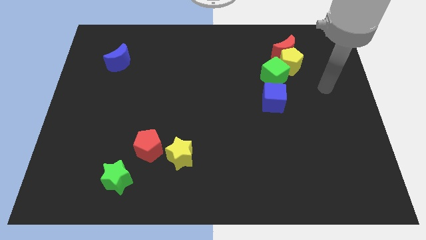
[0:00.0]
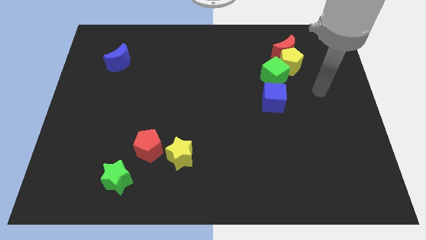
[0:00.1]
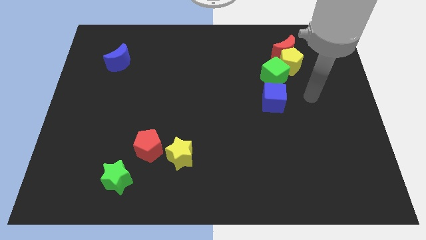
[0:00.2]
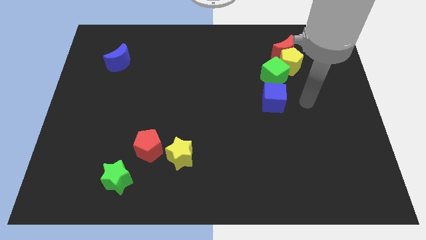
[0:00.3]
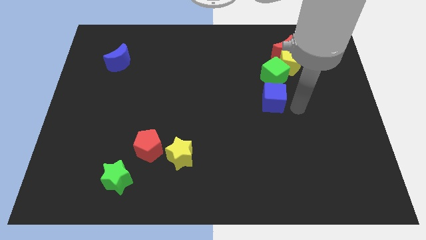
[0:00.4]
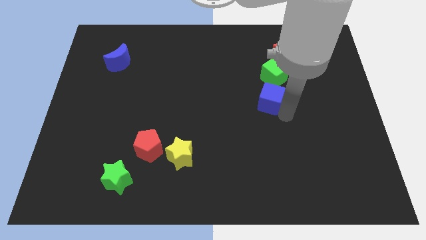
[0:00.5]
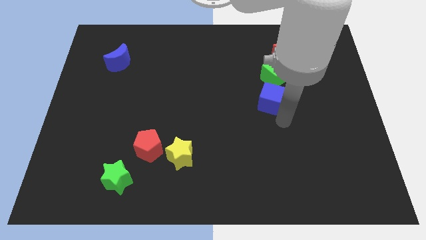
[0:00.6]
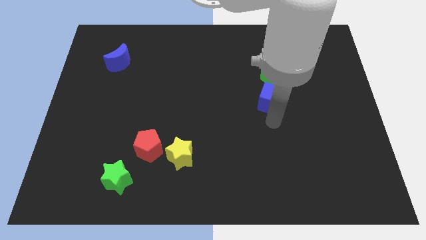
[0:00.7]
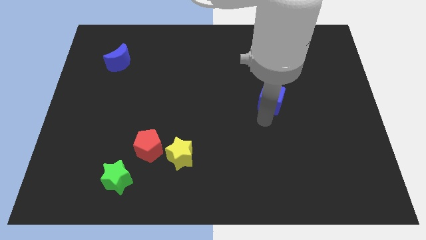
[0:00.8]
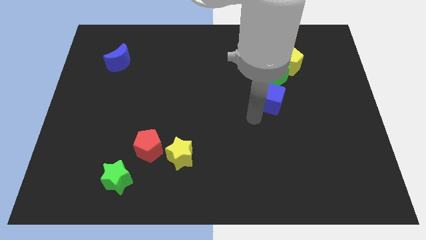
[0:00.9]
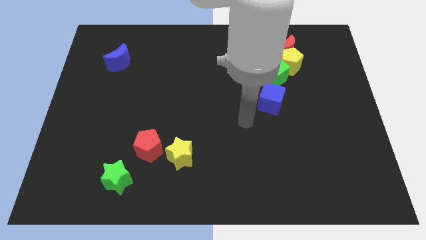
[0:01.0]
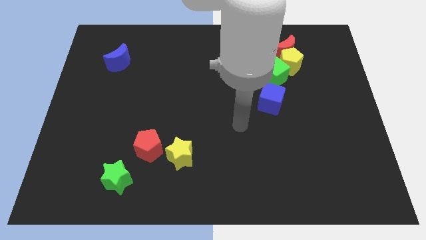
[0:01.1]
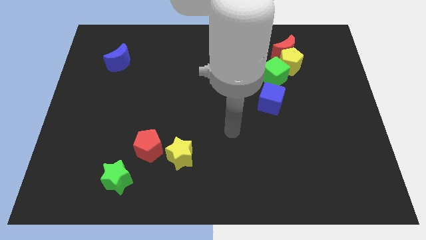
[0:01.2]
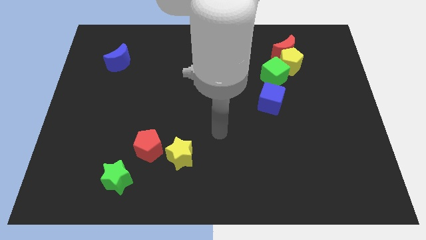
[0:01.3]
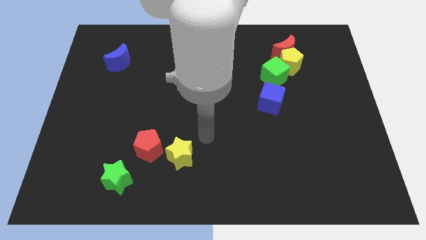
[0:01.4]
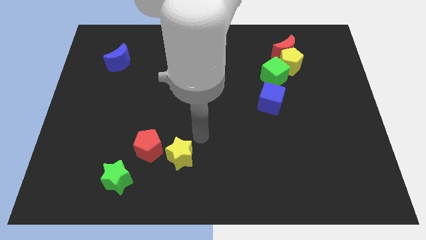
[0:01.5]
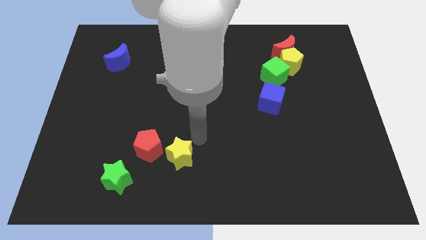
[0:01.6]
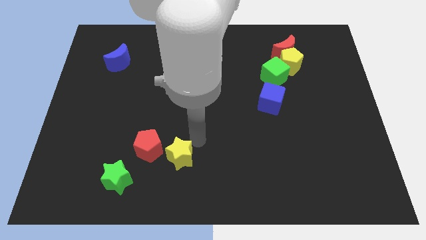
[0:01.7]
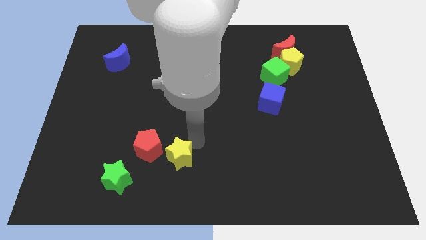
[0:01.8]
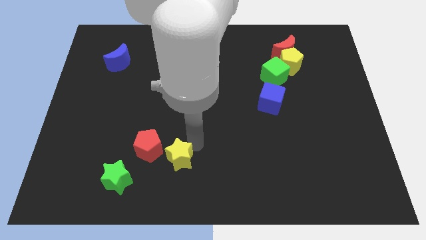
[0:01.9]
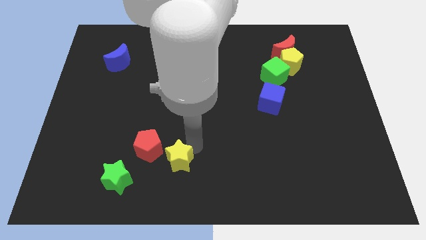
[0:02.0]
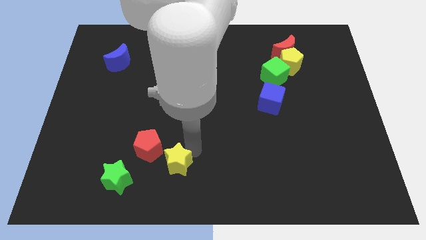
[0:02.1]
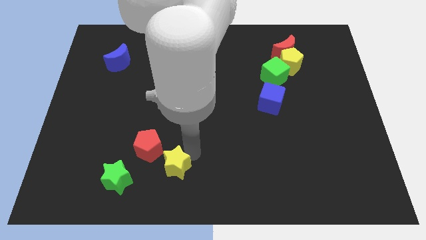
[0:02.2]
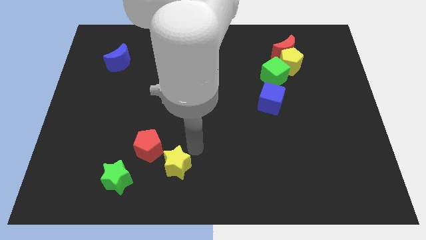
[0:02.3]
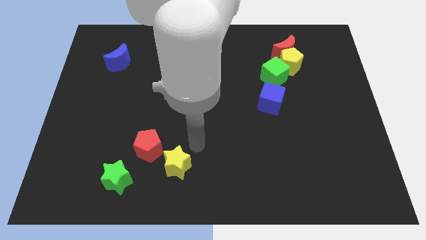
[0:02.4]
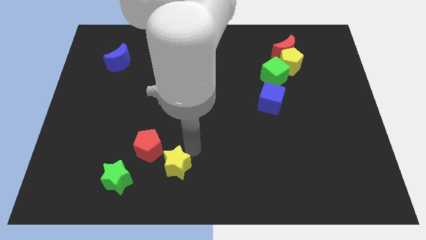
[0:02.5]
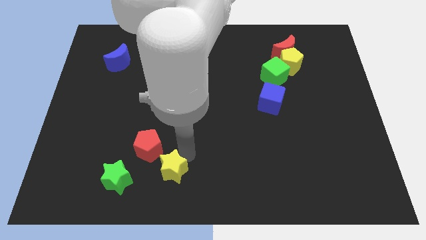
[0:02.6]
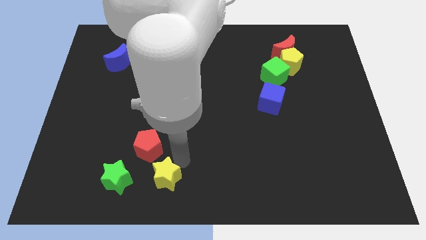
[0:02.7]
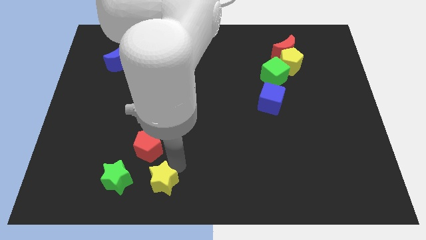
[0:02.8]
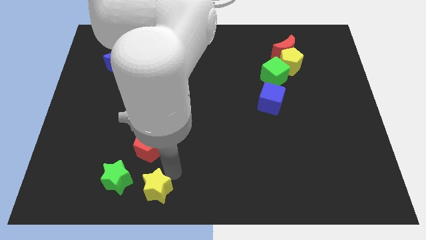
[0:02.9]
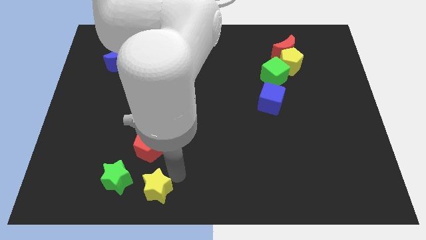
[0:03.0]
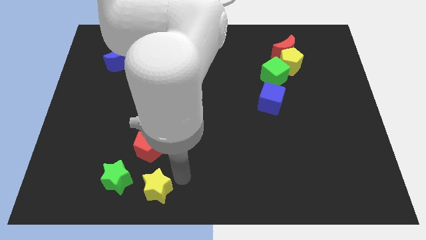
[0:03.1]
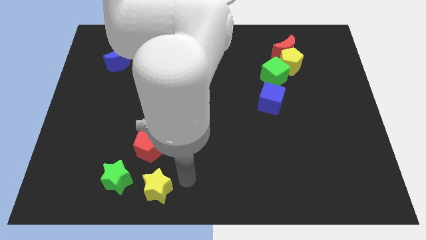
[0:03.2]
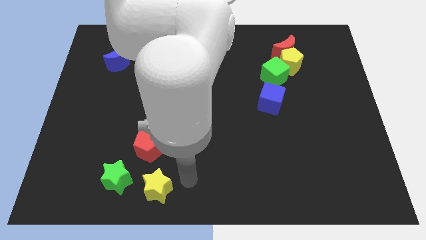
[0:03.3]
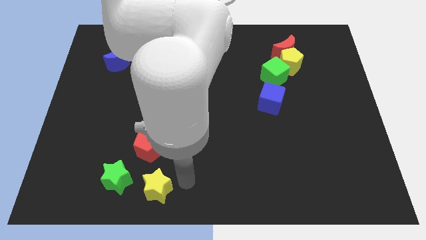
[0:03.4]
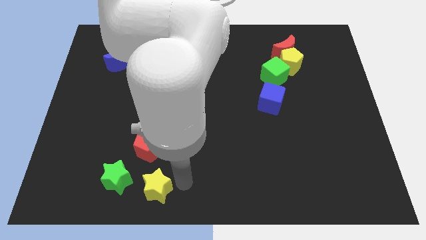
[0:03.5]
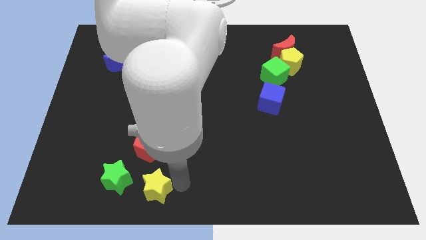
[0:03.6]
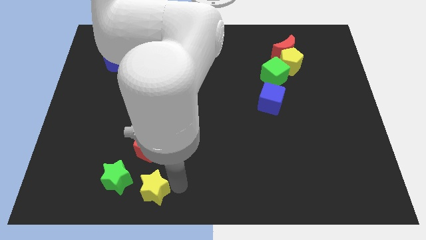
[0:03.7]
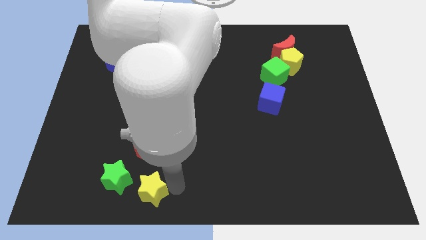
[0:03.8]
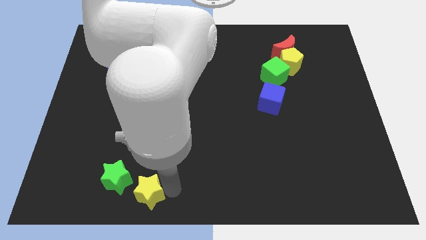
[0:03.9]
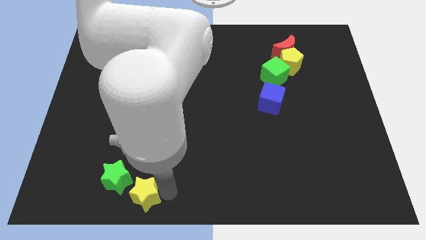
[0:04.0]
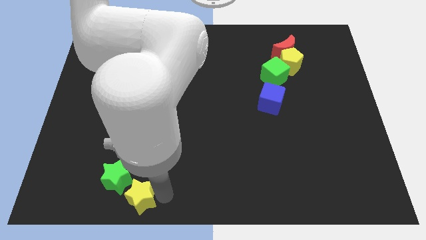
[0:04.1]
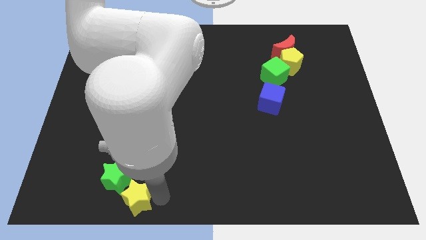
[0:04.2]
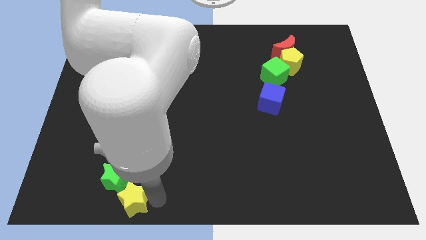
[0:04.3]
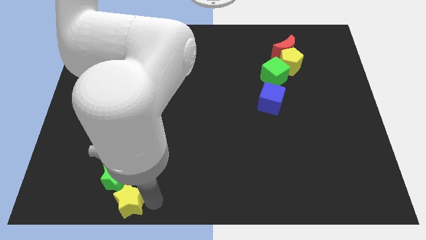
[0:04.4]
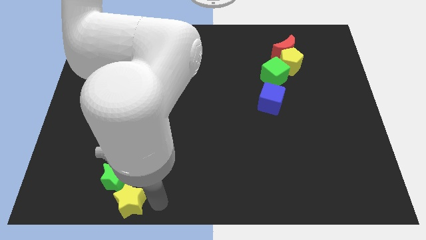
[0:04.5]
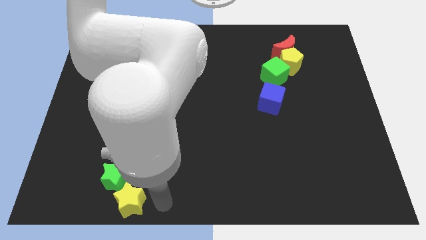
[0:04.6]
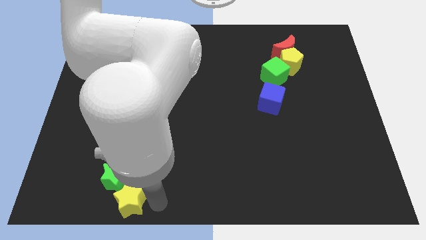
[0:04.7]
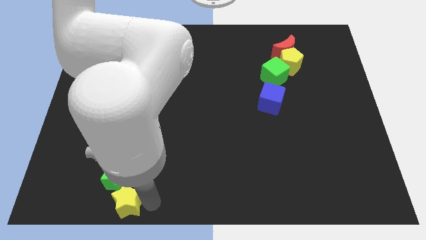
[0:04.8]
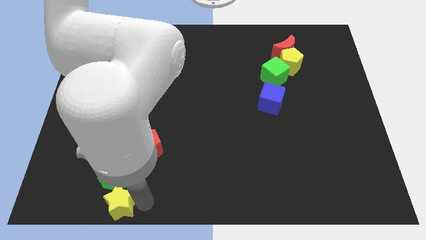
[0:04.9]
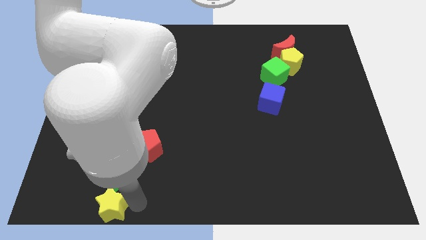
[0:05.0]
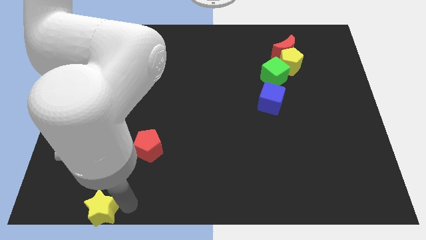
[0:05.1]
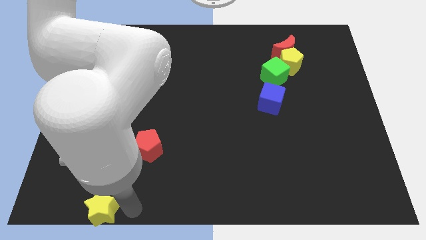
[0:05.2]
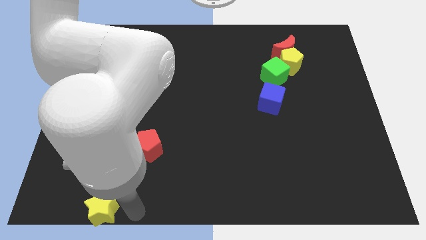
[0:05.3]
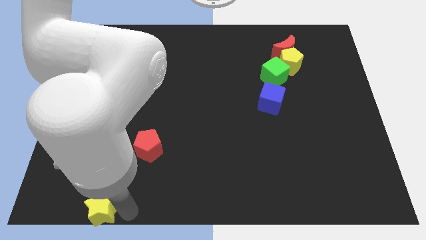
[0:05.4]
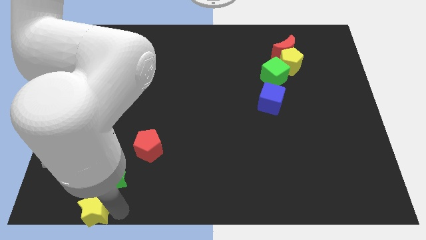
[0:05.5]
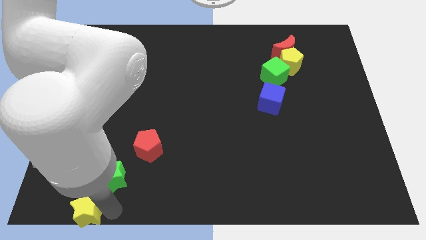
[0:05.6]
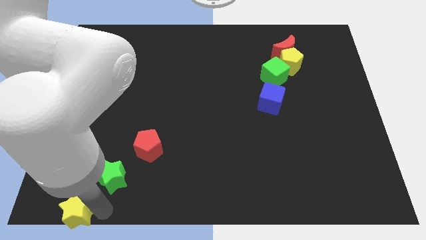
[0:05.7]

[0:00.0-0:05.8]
move the yellow star to the bottom left

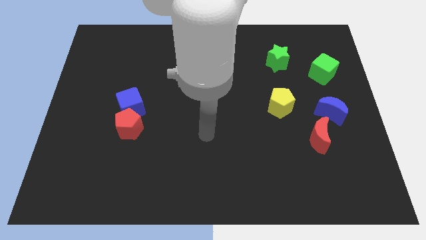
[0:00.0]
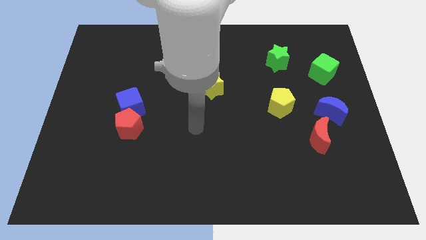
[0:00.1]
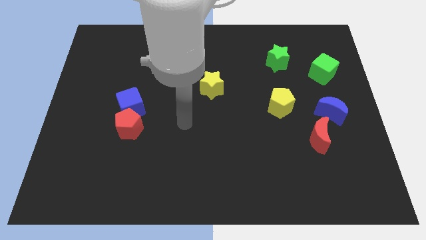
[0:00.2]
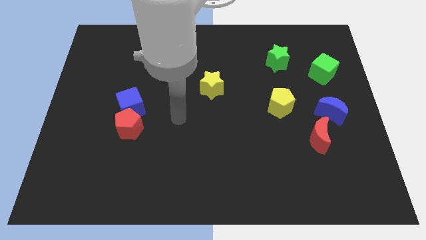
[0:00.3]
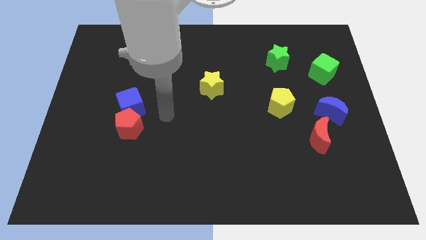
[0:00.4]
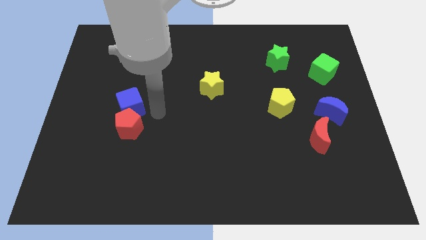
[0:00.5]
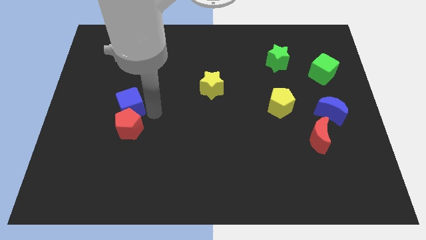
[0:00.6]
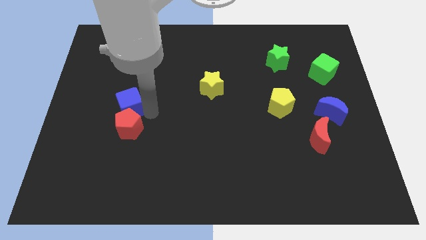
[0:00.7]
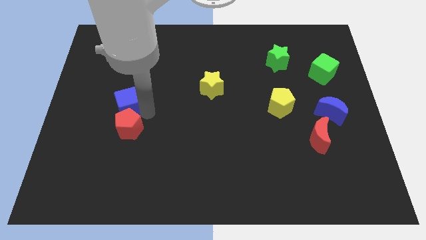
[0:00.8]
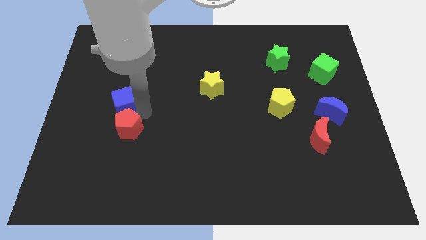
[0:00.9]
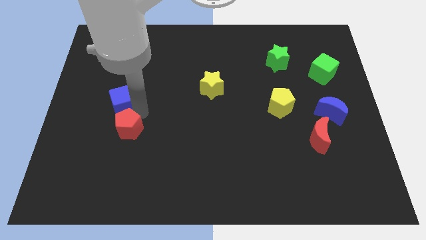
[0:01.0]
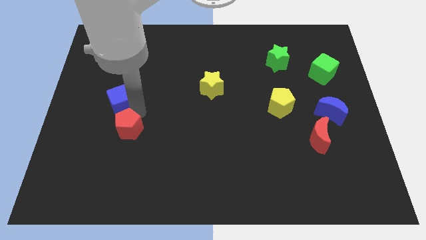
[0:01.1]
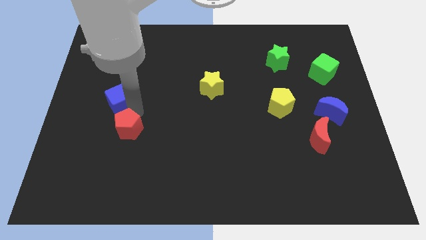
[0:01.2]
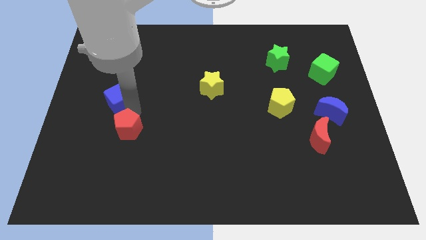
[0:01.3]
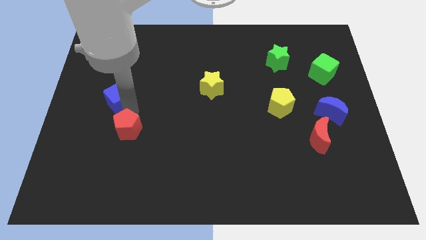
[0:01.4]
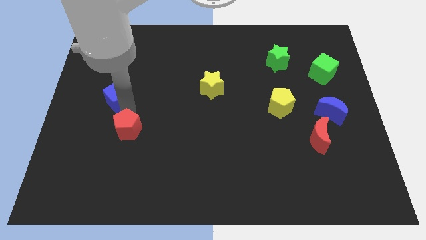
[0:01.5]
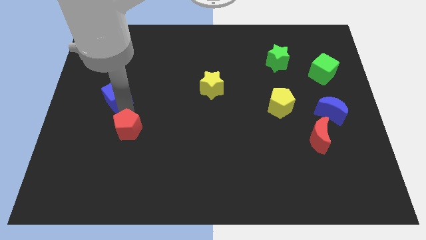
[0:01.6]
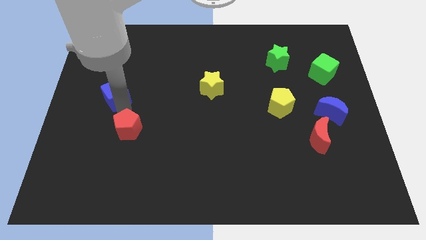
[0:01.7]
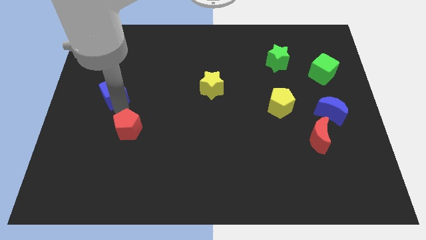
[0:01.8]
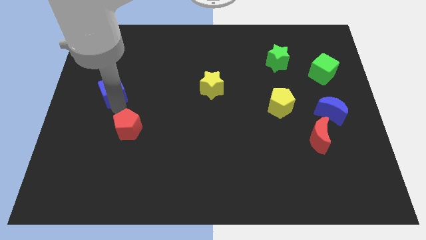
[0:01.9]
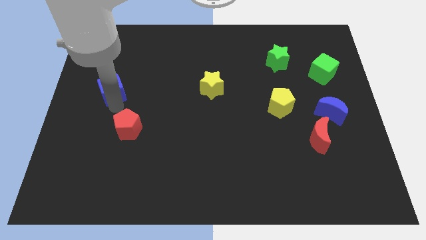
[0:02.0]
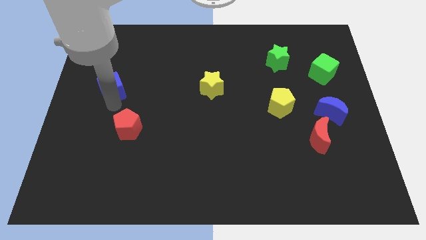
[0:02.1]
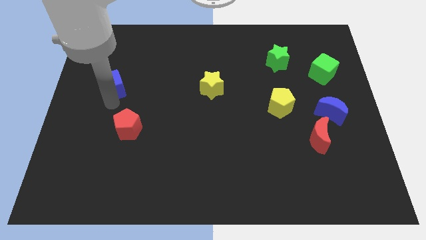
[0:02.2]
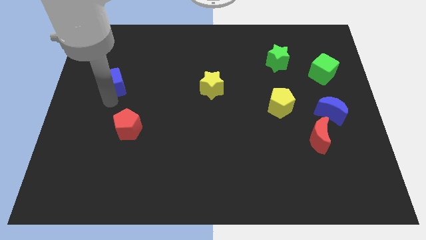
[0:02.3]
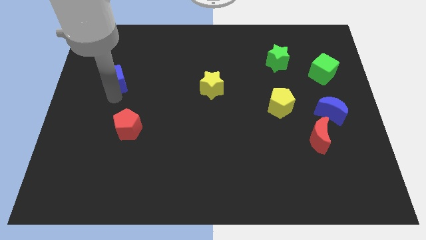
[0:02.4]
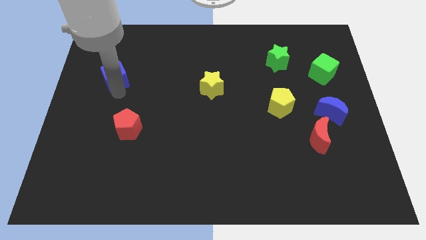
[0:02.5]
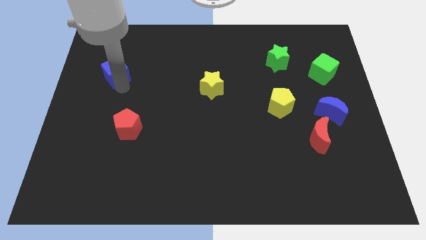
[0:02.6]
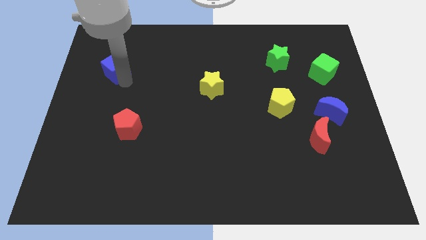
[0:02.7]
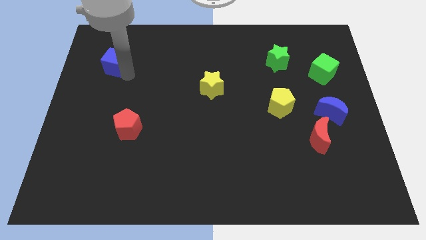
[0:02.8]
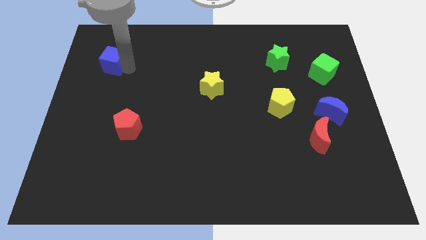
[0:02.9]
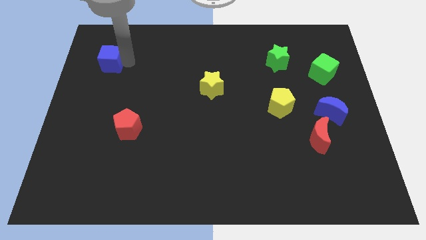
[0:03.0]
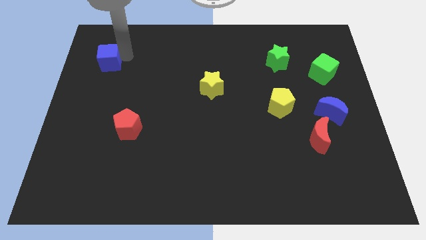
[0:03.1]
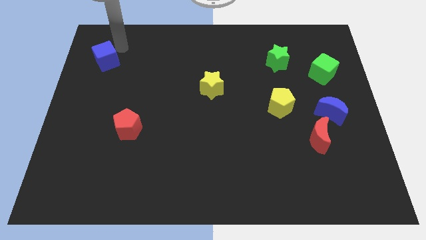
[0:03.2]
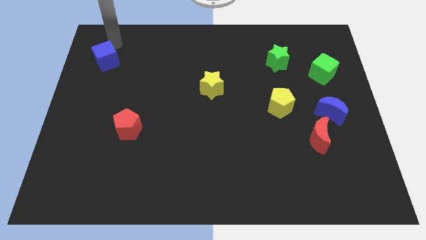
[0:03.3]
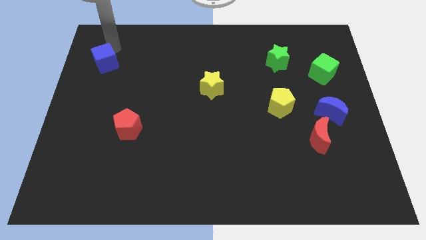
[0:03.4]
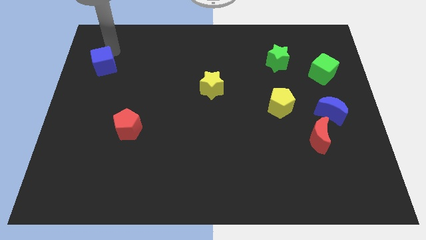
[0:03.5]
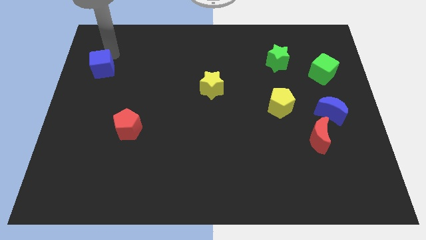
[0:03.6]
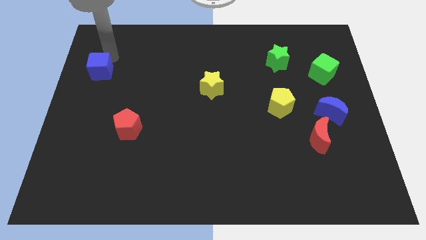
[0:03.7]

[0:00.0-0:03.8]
put the blue cube to the center left
